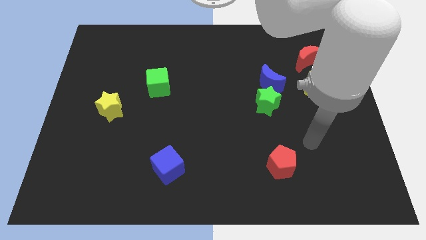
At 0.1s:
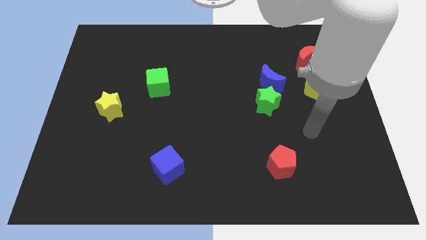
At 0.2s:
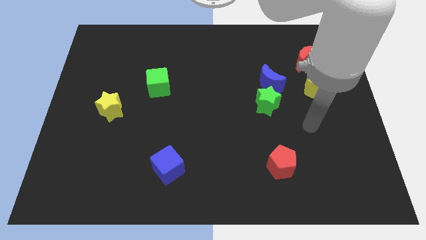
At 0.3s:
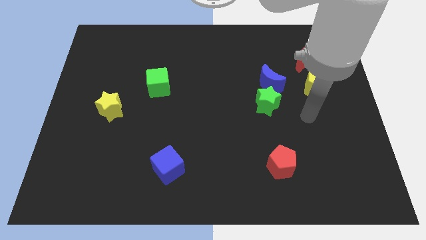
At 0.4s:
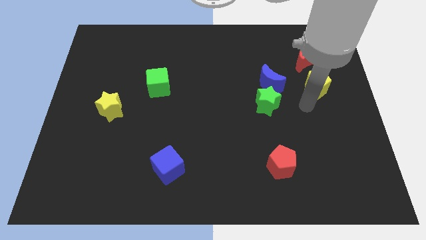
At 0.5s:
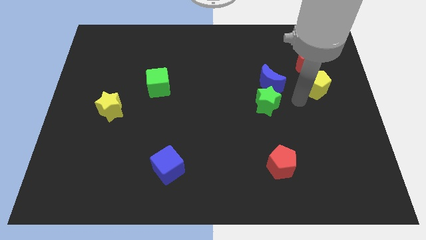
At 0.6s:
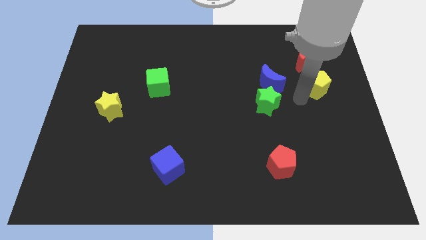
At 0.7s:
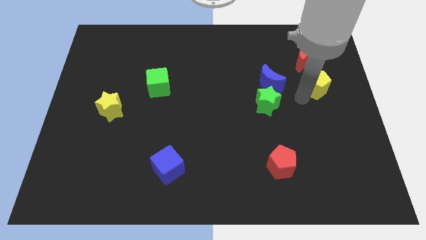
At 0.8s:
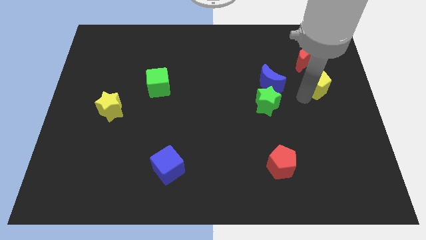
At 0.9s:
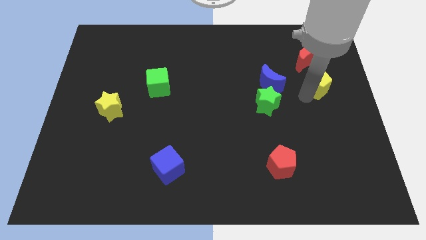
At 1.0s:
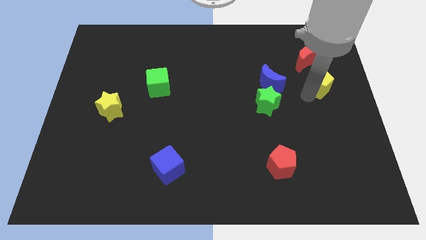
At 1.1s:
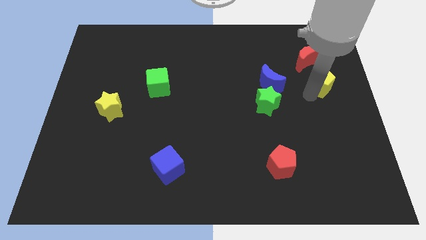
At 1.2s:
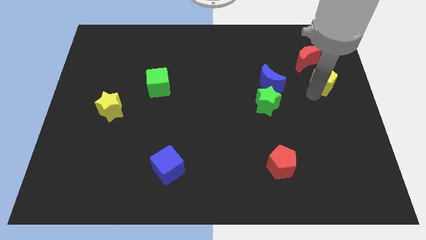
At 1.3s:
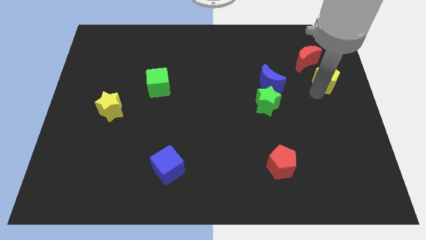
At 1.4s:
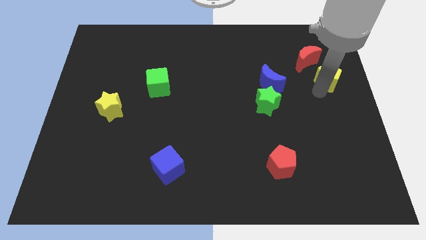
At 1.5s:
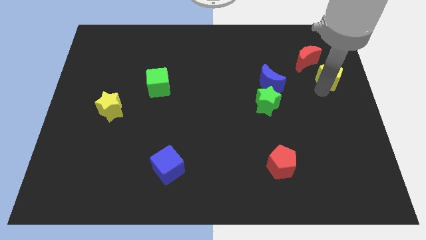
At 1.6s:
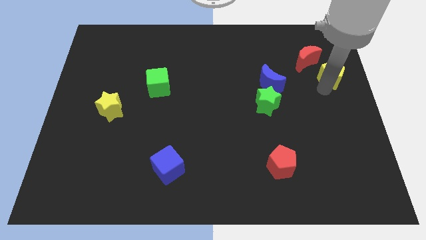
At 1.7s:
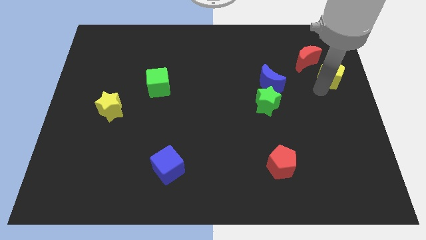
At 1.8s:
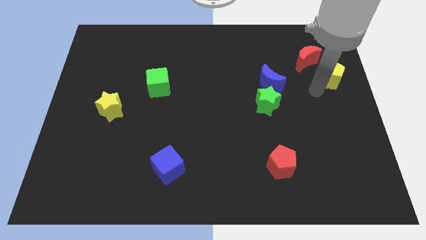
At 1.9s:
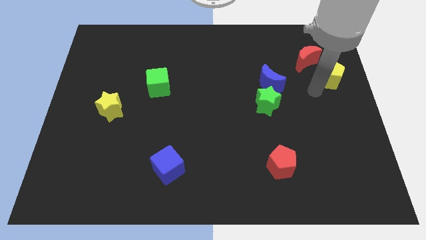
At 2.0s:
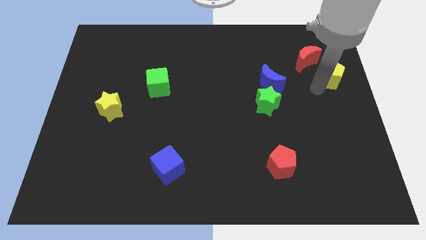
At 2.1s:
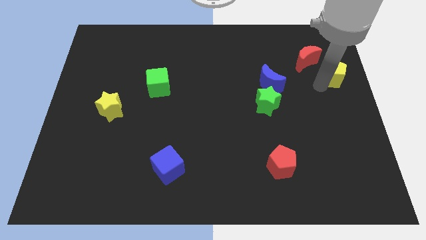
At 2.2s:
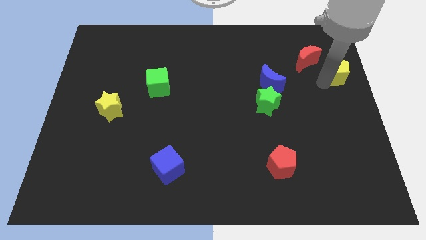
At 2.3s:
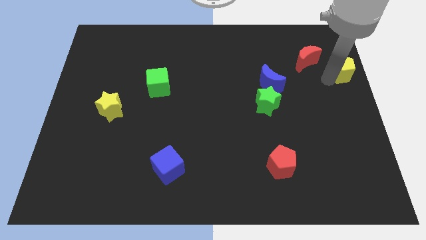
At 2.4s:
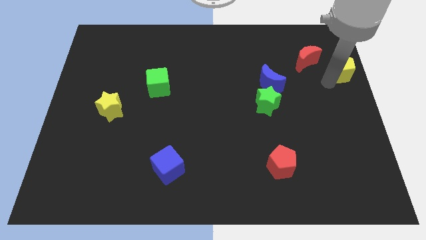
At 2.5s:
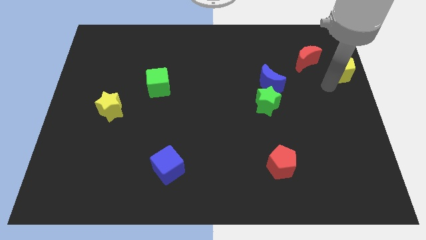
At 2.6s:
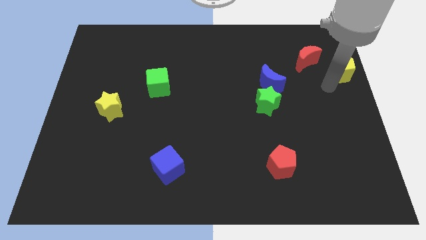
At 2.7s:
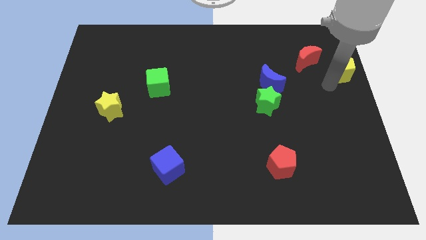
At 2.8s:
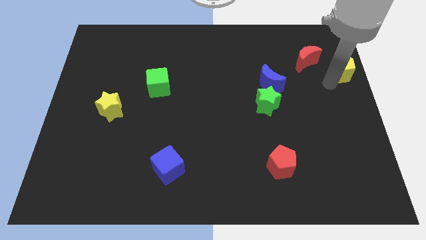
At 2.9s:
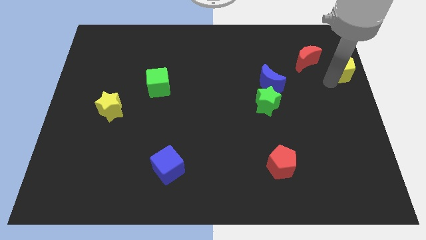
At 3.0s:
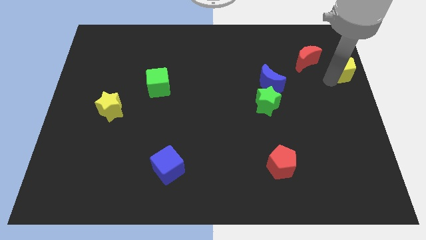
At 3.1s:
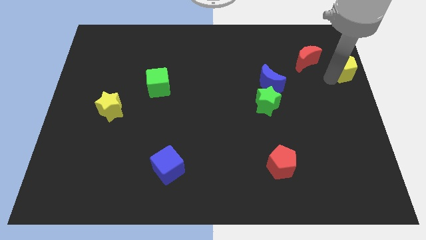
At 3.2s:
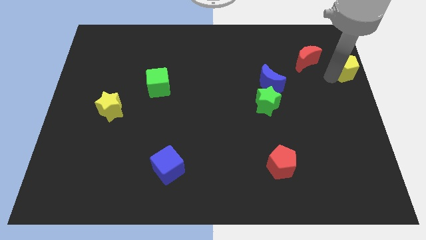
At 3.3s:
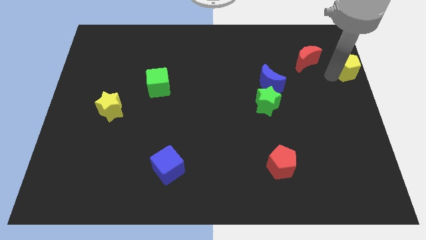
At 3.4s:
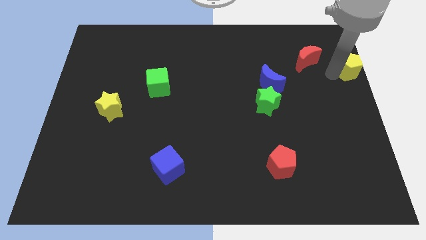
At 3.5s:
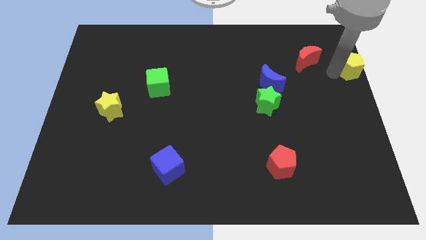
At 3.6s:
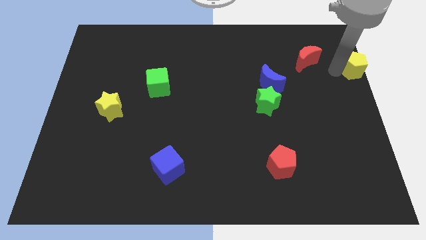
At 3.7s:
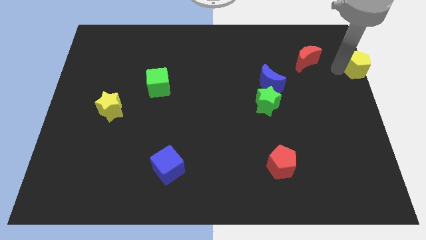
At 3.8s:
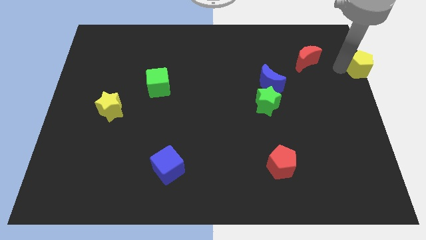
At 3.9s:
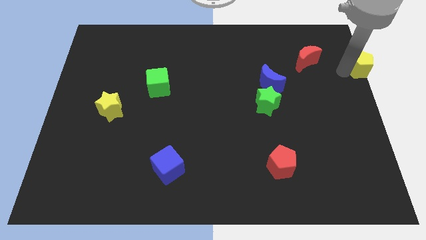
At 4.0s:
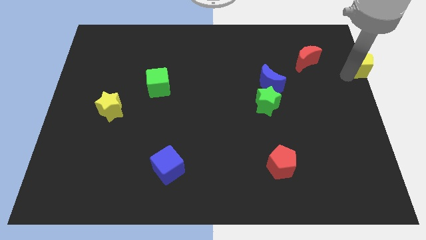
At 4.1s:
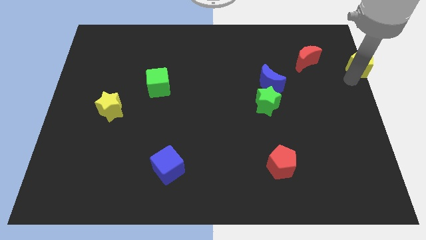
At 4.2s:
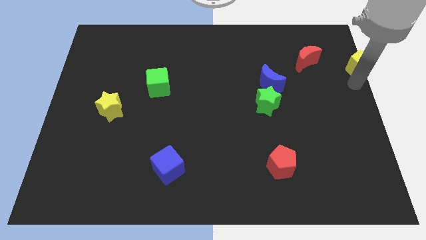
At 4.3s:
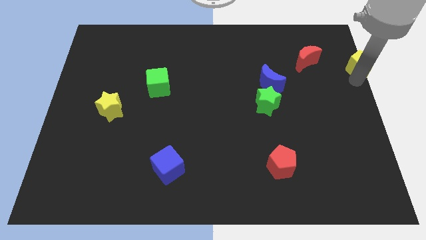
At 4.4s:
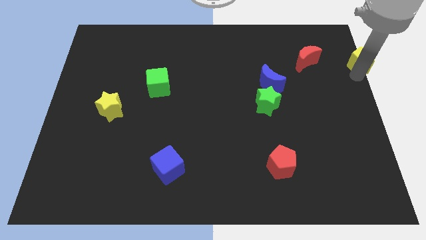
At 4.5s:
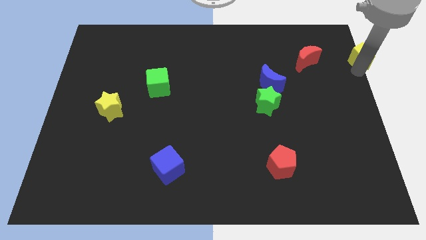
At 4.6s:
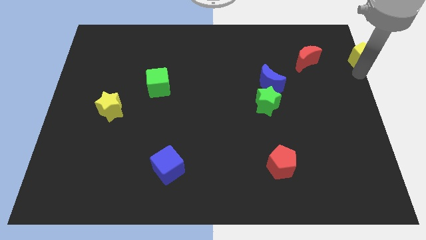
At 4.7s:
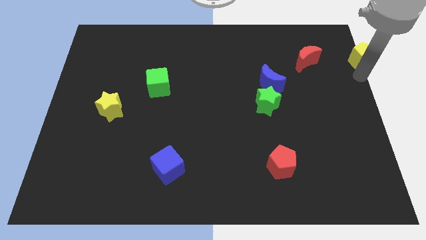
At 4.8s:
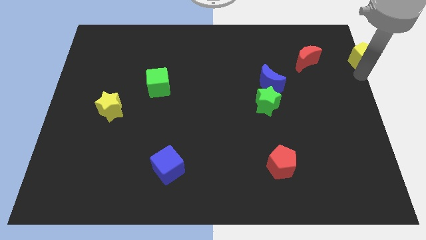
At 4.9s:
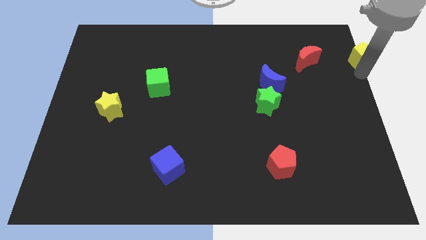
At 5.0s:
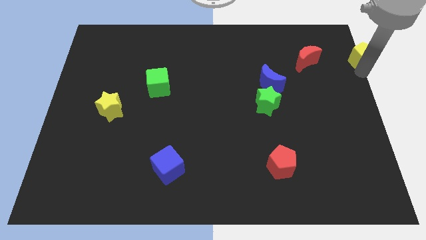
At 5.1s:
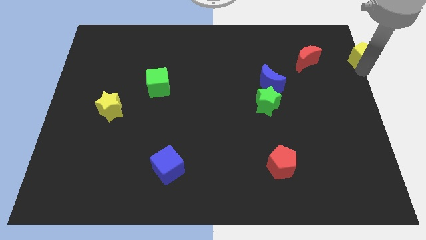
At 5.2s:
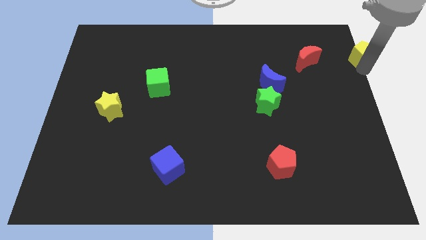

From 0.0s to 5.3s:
put the yellow pentagon to the top right corner

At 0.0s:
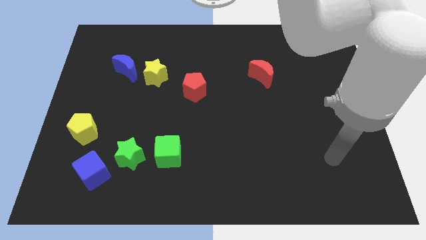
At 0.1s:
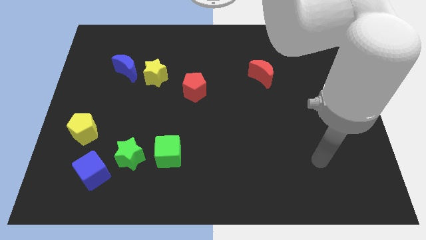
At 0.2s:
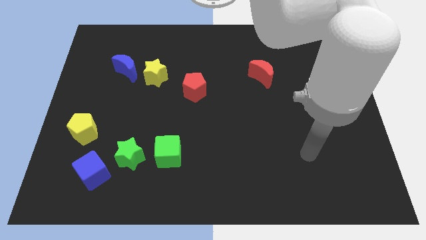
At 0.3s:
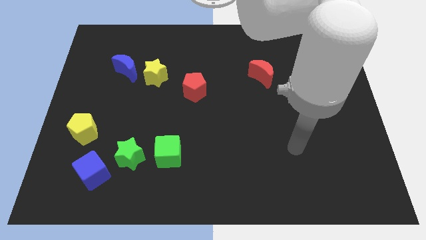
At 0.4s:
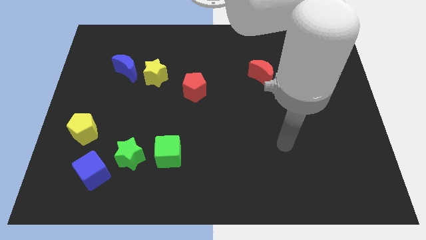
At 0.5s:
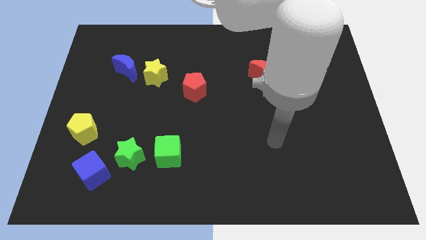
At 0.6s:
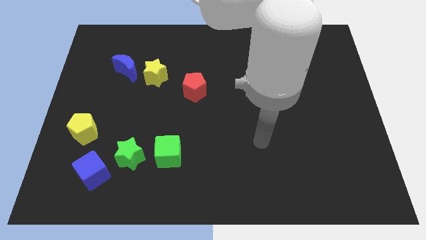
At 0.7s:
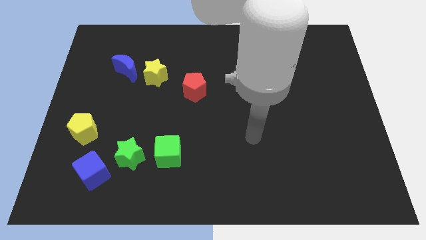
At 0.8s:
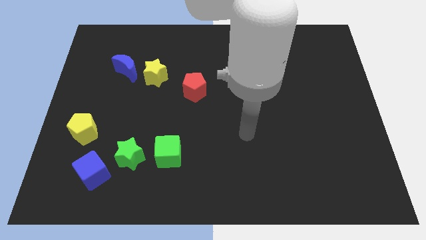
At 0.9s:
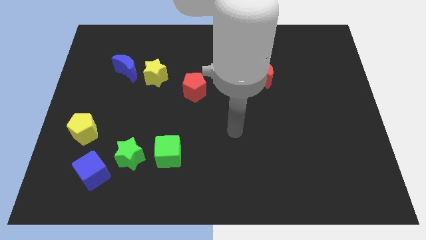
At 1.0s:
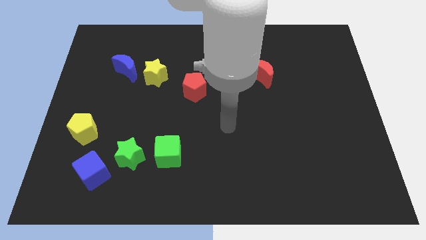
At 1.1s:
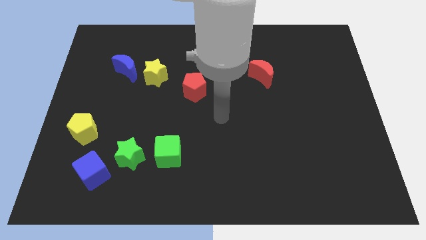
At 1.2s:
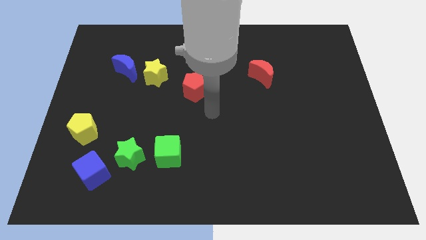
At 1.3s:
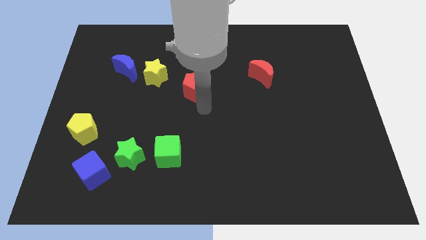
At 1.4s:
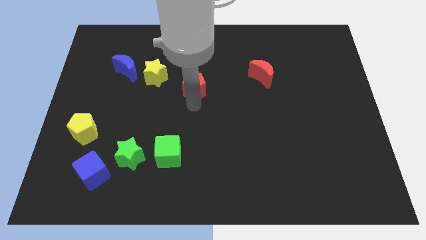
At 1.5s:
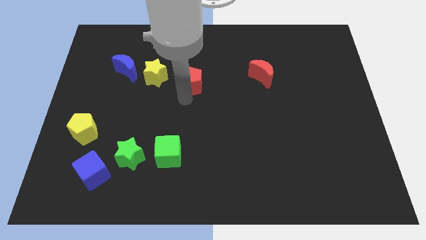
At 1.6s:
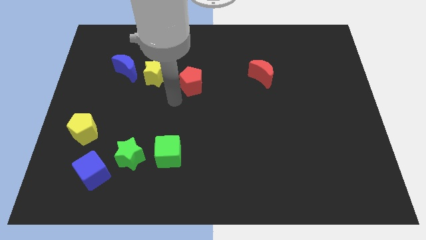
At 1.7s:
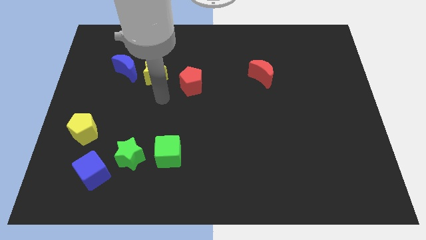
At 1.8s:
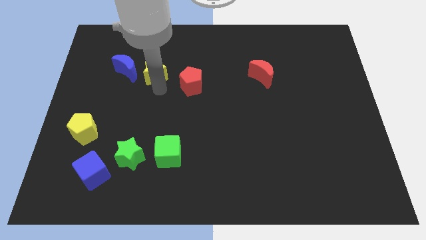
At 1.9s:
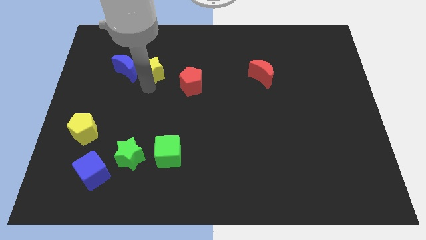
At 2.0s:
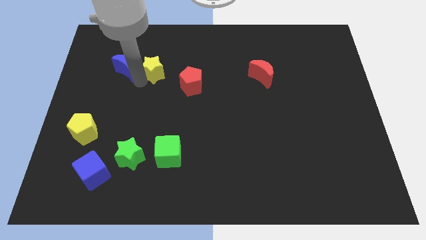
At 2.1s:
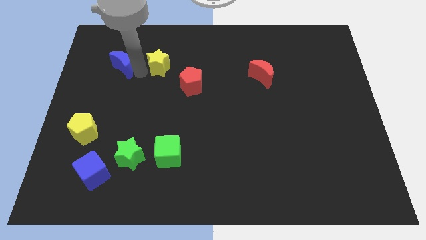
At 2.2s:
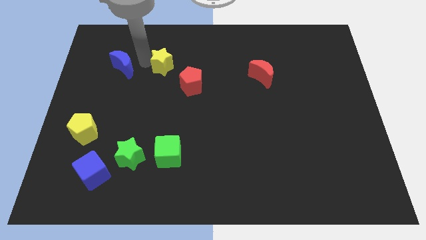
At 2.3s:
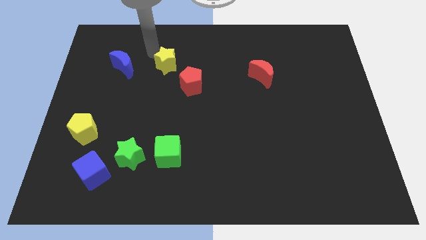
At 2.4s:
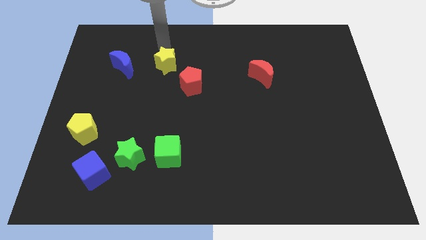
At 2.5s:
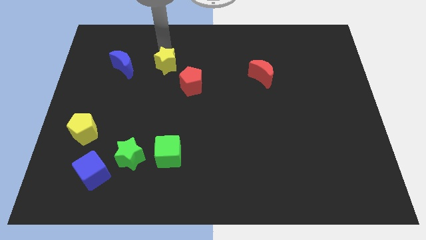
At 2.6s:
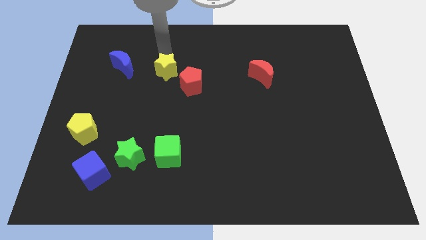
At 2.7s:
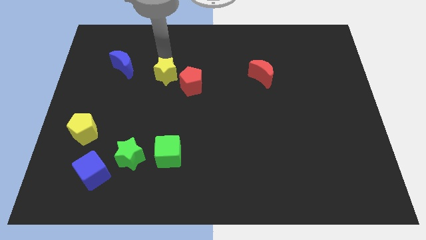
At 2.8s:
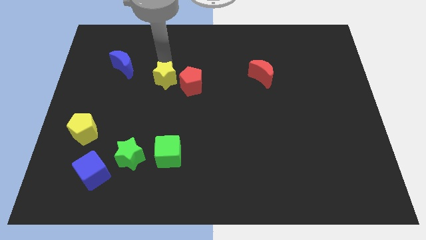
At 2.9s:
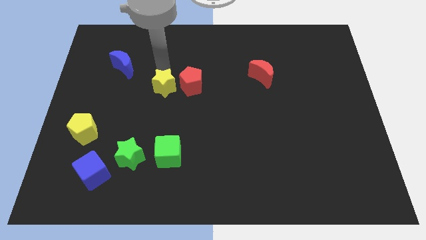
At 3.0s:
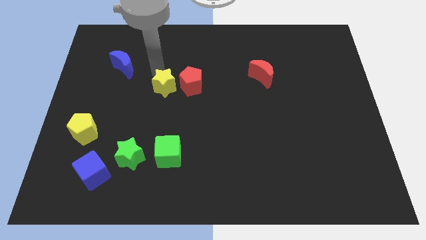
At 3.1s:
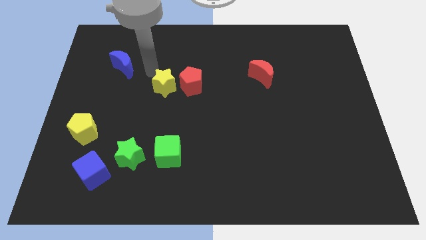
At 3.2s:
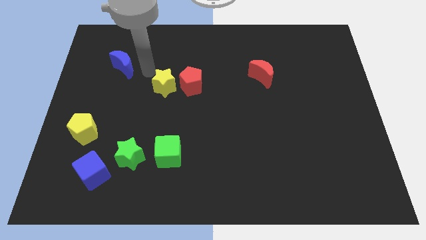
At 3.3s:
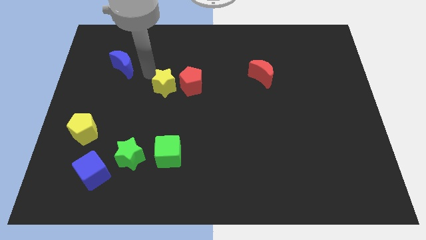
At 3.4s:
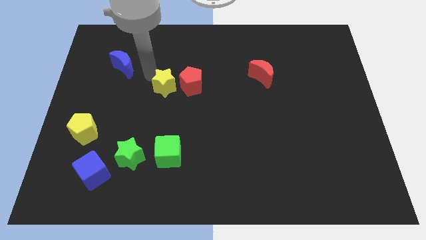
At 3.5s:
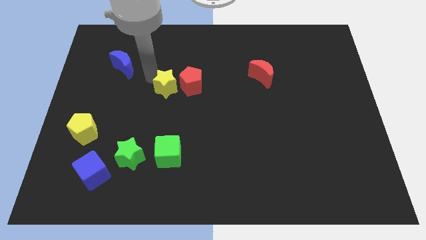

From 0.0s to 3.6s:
push the yellow star to the middle of the board
